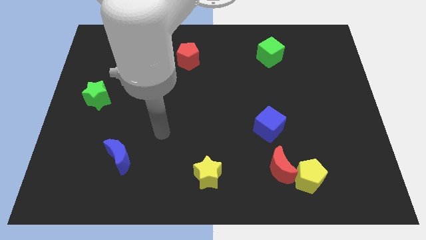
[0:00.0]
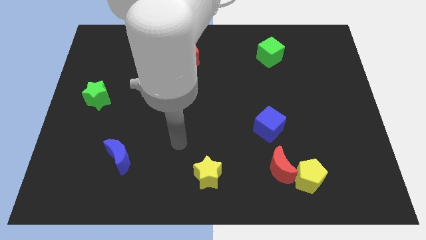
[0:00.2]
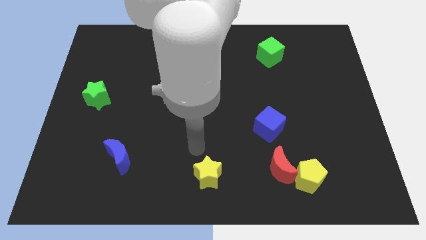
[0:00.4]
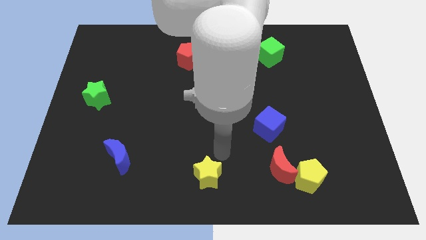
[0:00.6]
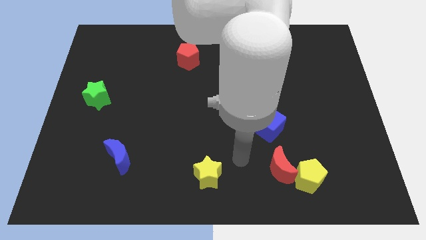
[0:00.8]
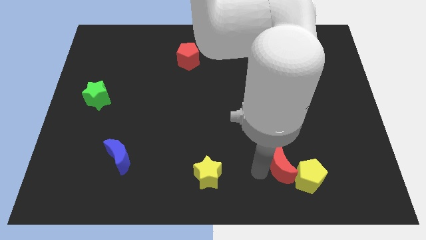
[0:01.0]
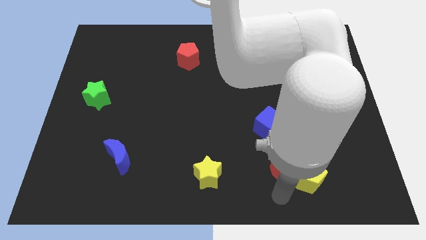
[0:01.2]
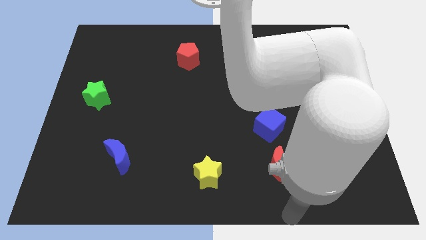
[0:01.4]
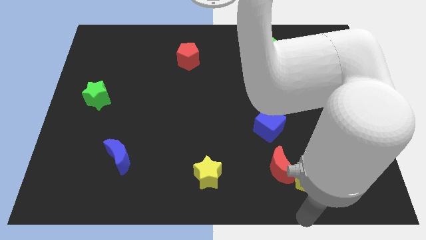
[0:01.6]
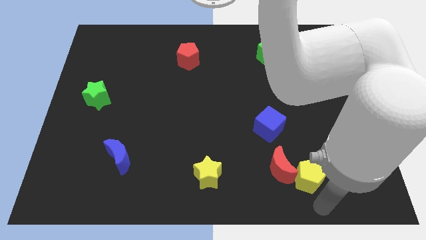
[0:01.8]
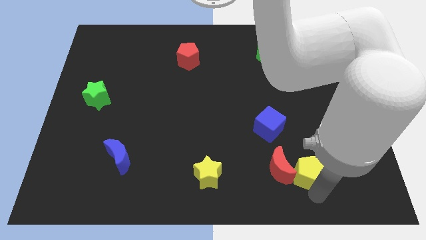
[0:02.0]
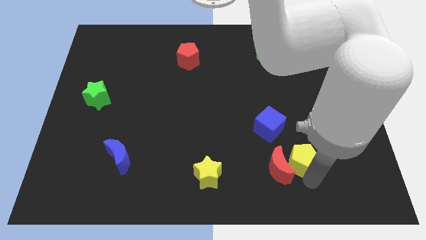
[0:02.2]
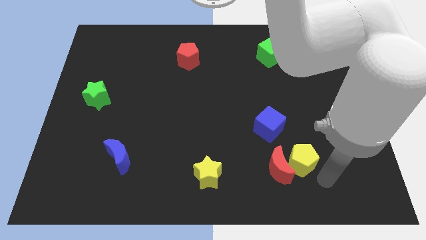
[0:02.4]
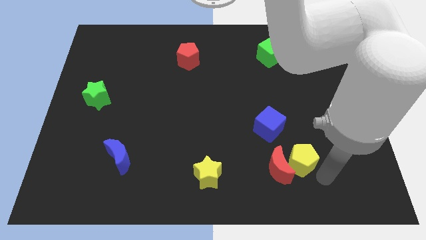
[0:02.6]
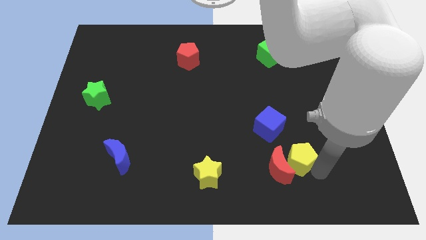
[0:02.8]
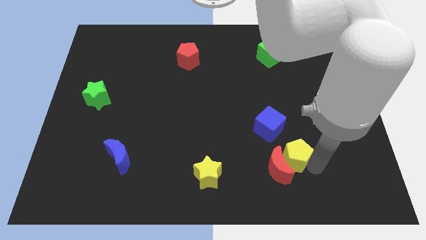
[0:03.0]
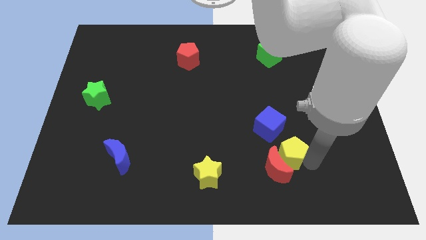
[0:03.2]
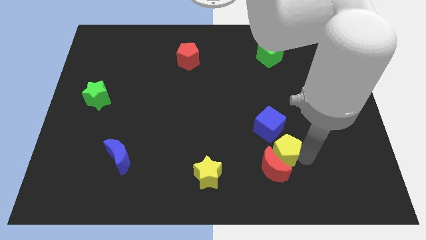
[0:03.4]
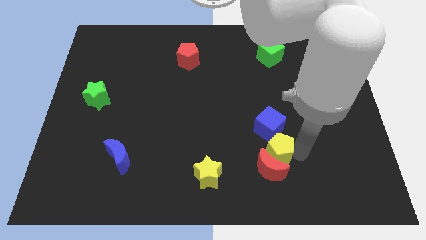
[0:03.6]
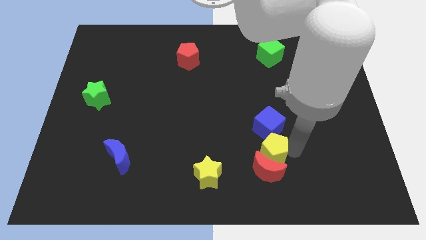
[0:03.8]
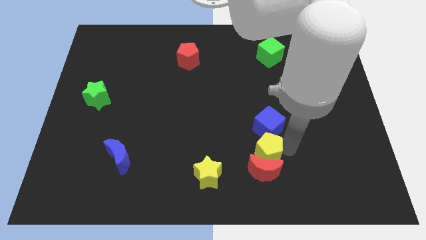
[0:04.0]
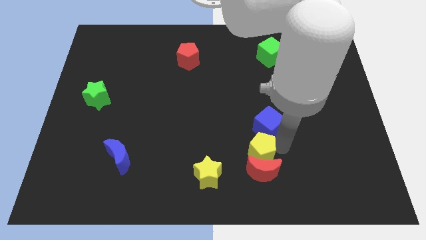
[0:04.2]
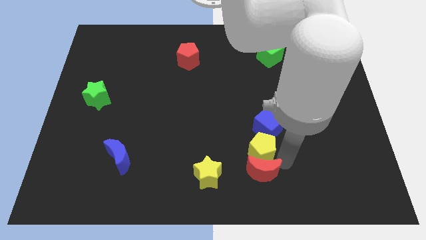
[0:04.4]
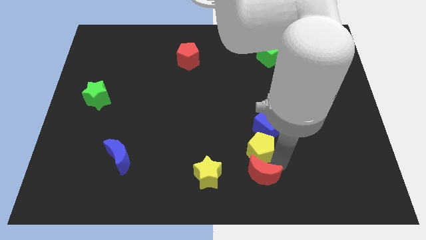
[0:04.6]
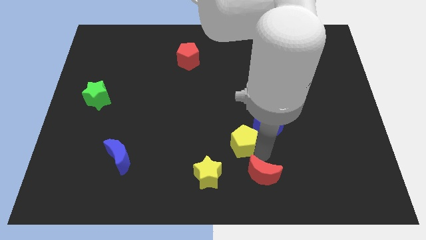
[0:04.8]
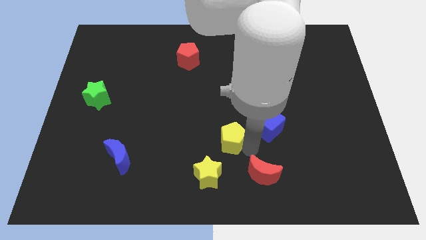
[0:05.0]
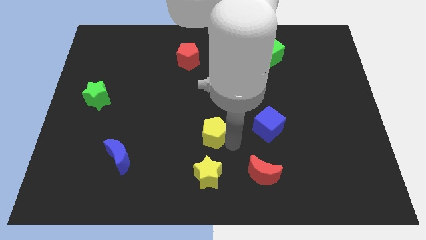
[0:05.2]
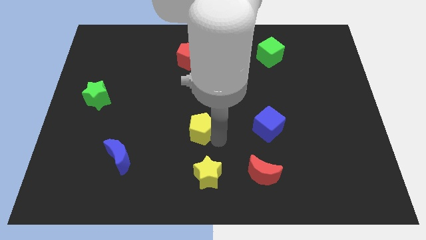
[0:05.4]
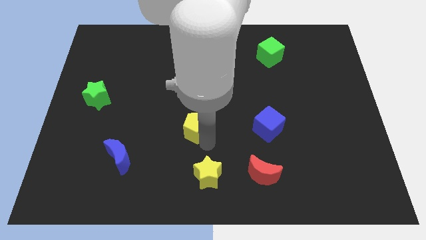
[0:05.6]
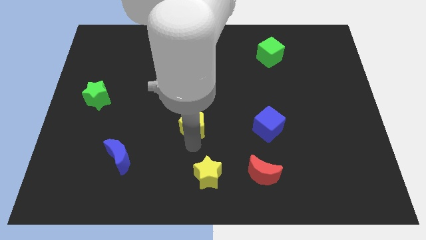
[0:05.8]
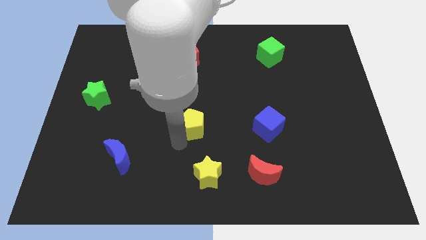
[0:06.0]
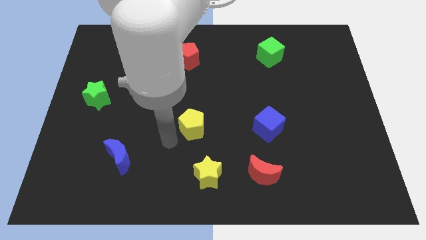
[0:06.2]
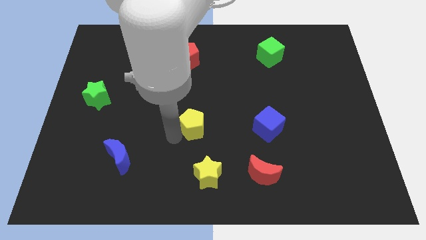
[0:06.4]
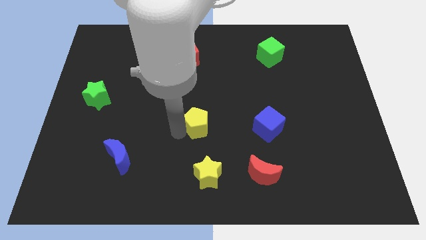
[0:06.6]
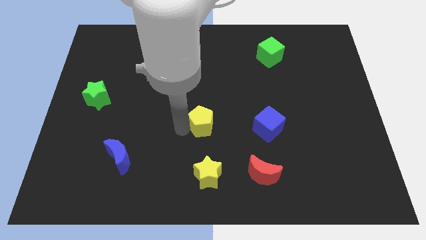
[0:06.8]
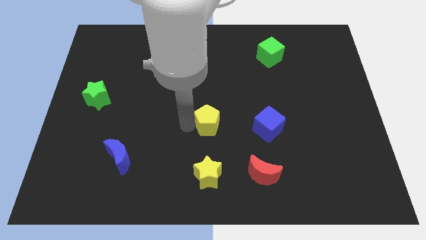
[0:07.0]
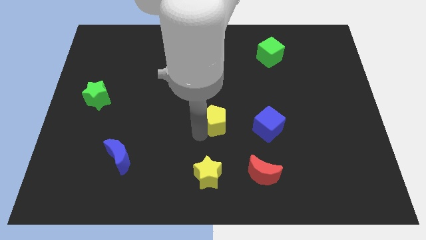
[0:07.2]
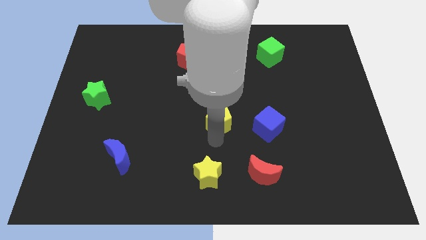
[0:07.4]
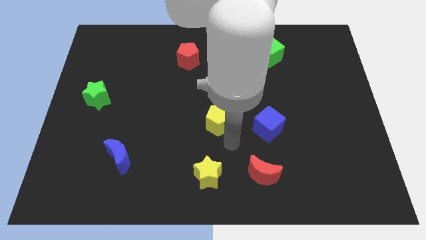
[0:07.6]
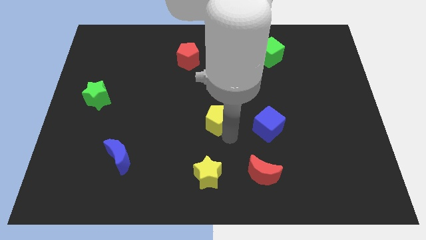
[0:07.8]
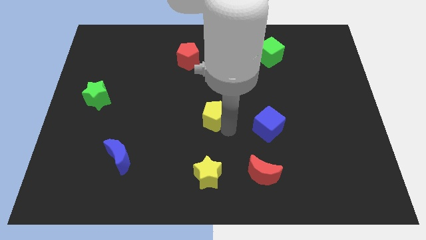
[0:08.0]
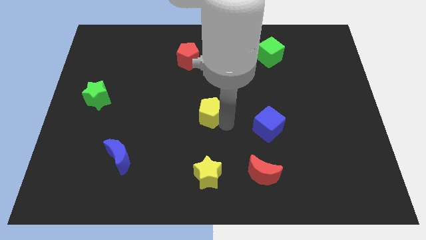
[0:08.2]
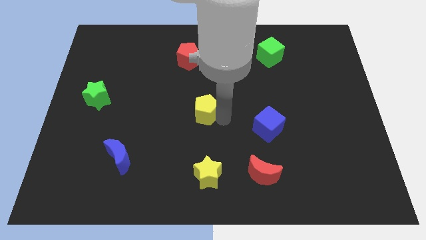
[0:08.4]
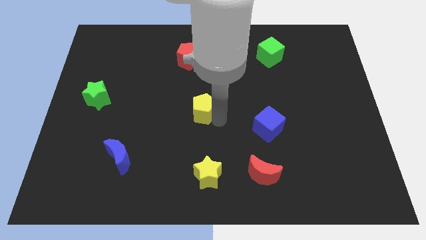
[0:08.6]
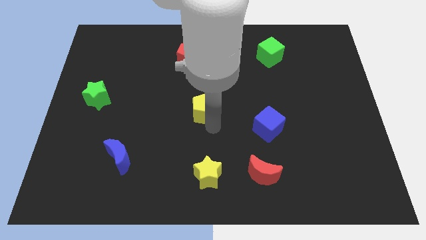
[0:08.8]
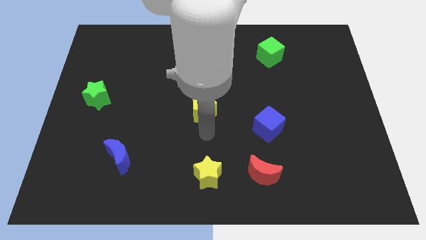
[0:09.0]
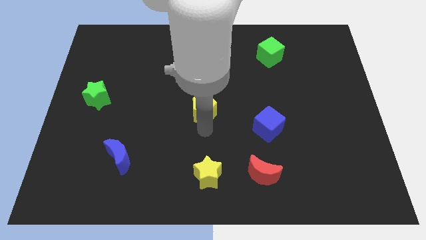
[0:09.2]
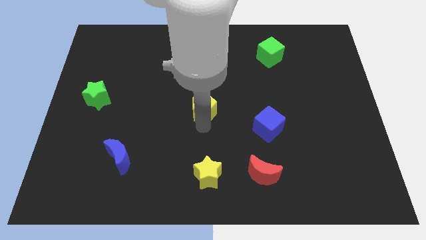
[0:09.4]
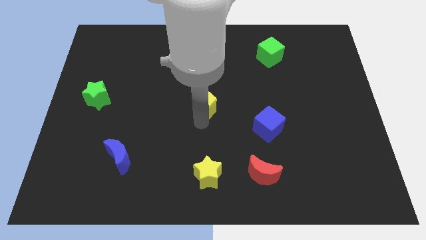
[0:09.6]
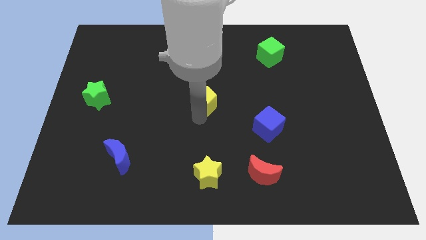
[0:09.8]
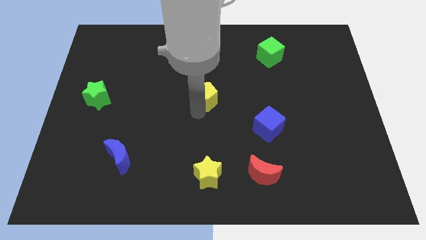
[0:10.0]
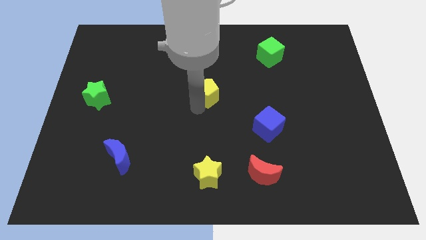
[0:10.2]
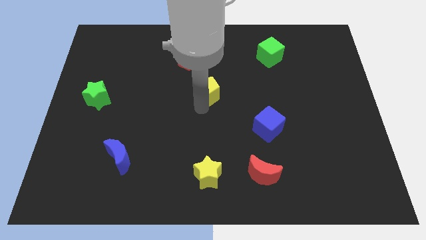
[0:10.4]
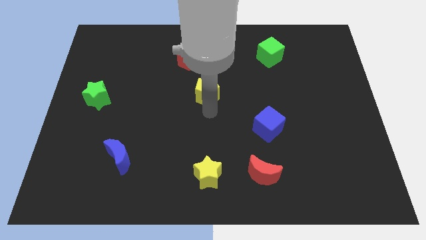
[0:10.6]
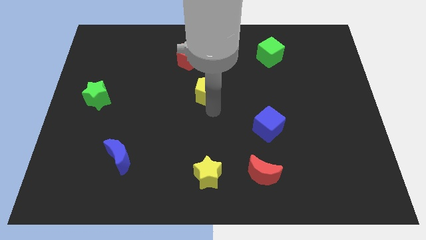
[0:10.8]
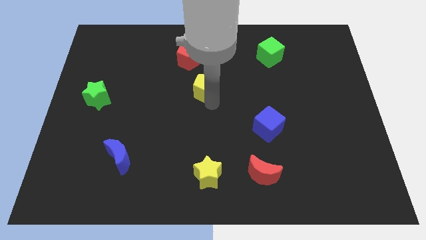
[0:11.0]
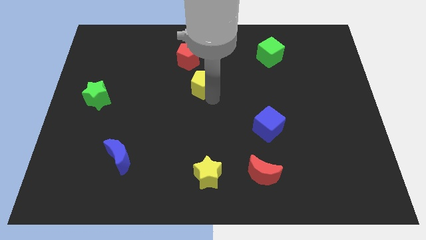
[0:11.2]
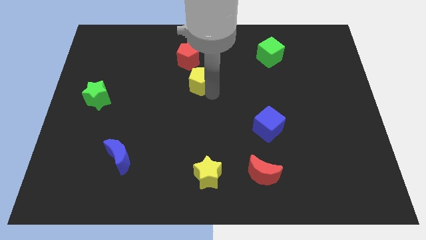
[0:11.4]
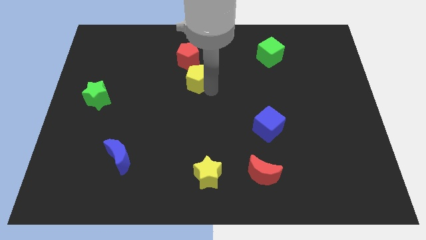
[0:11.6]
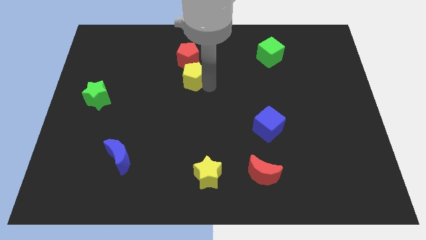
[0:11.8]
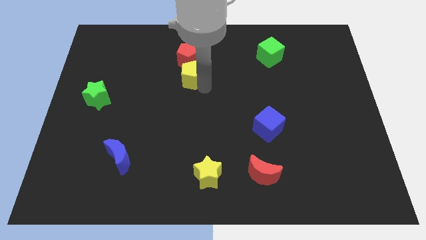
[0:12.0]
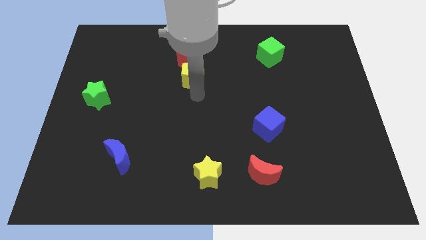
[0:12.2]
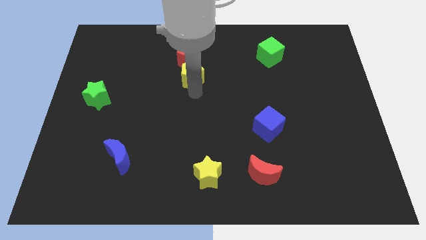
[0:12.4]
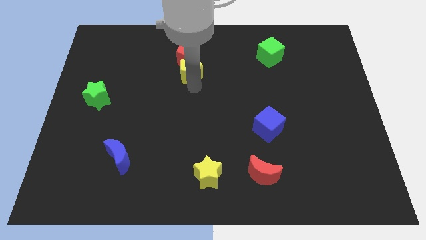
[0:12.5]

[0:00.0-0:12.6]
move the yellow pentagon towards the red pentagon

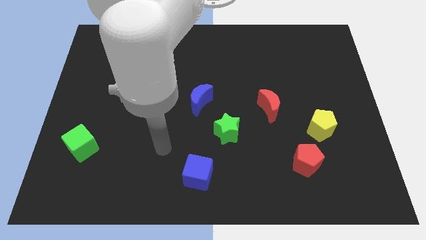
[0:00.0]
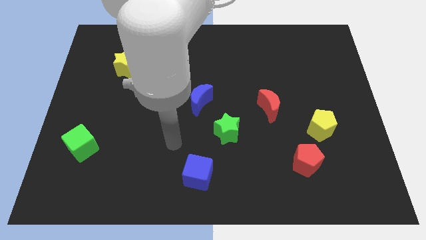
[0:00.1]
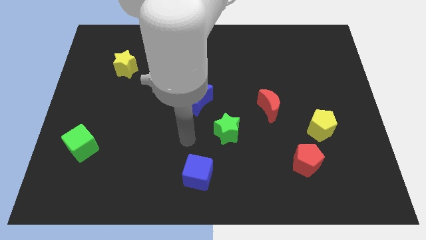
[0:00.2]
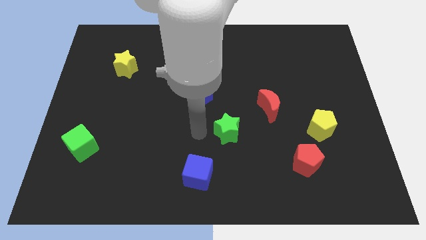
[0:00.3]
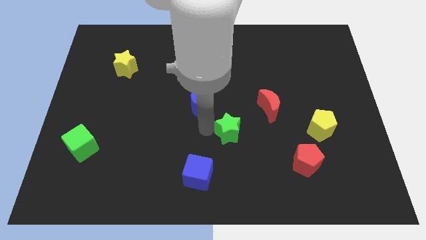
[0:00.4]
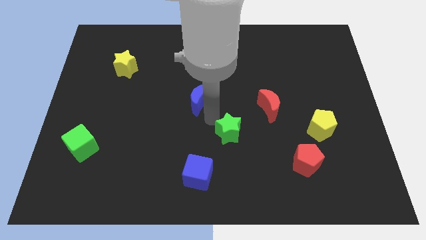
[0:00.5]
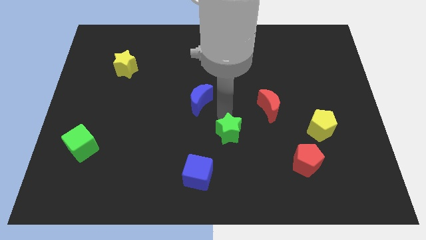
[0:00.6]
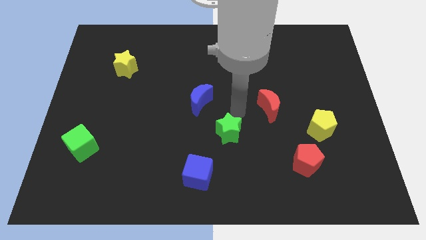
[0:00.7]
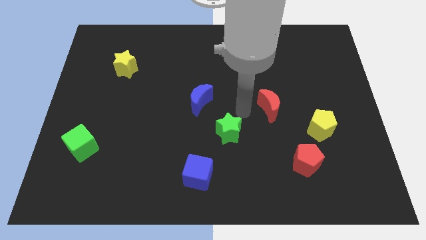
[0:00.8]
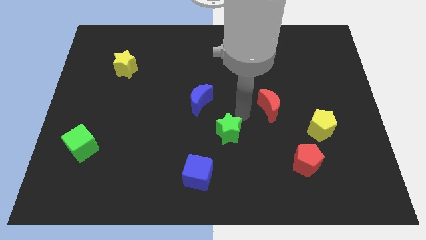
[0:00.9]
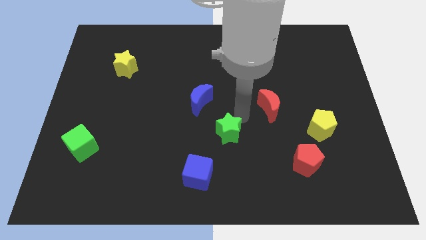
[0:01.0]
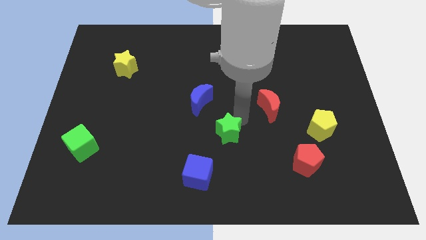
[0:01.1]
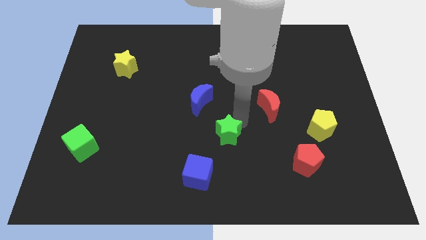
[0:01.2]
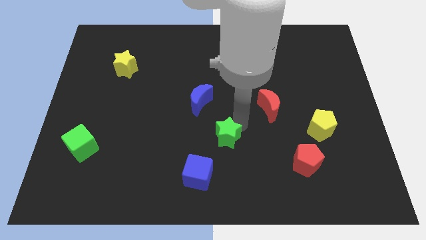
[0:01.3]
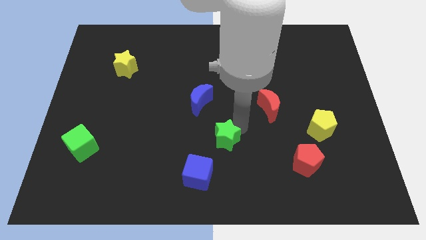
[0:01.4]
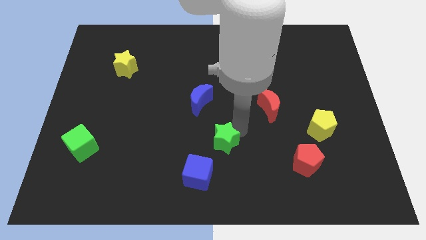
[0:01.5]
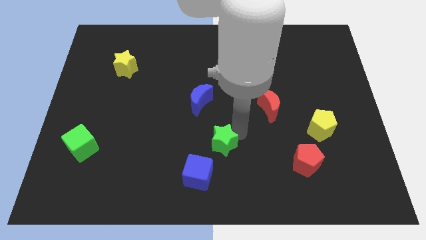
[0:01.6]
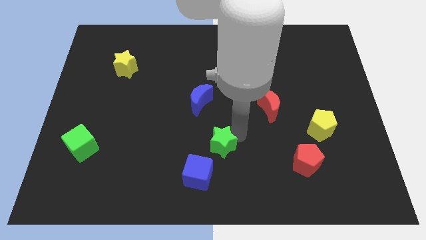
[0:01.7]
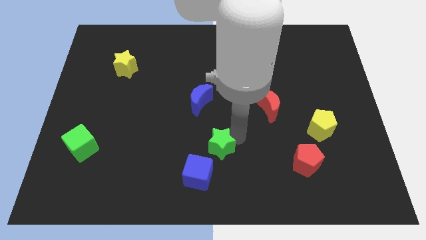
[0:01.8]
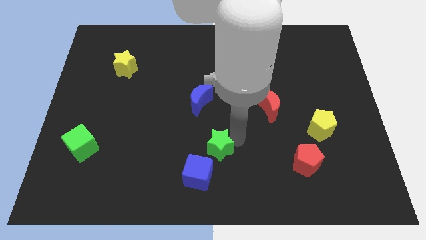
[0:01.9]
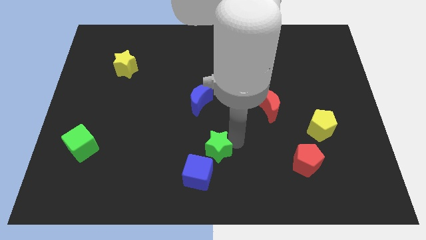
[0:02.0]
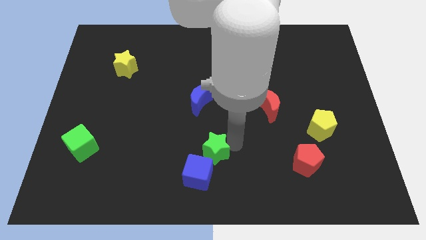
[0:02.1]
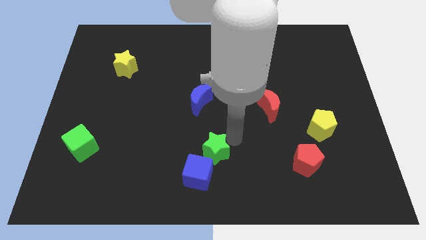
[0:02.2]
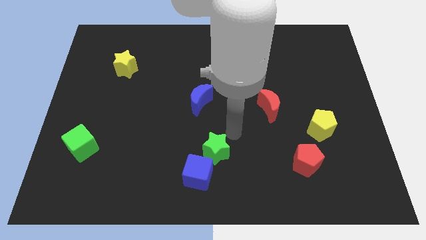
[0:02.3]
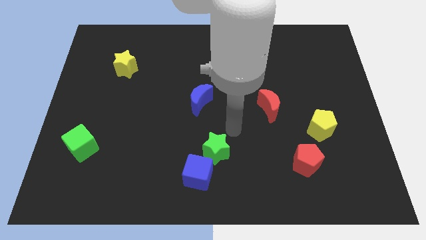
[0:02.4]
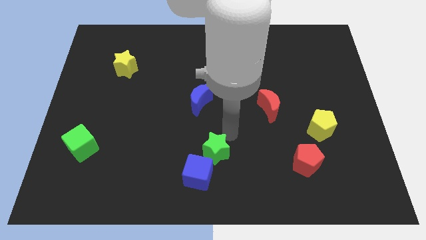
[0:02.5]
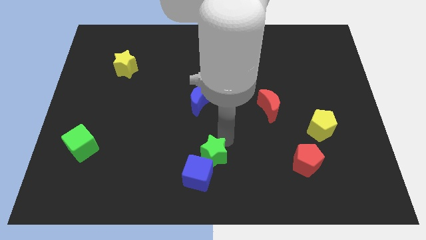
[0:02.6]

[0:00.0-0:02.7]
put the green star next to the blue cube
